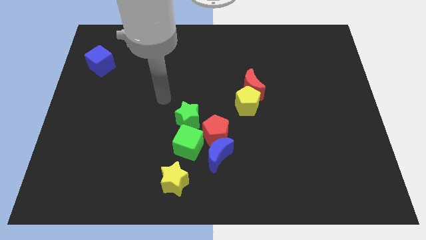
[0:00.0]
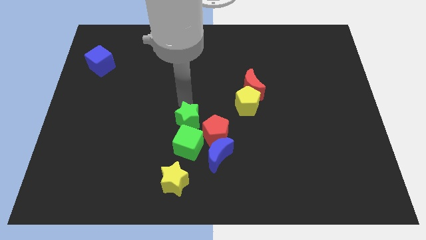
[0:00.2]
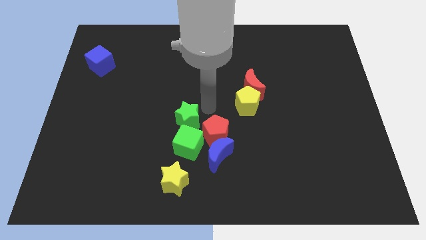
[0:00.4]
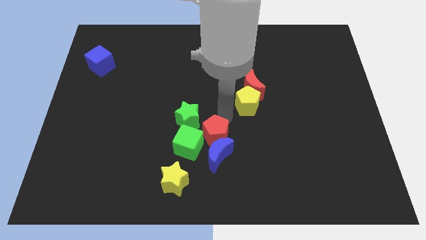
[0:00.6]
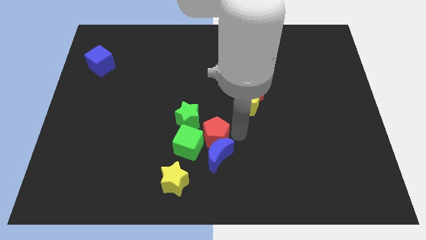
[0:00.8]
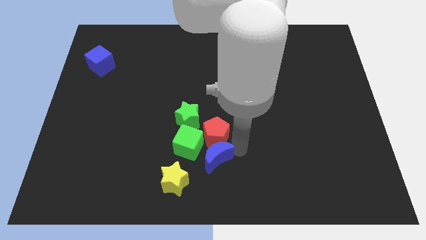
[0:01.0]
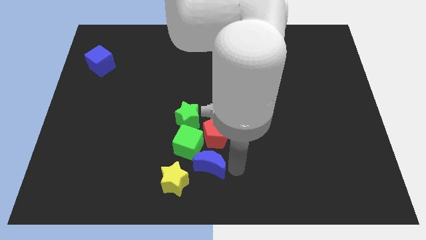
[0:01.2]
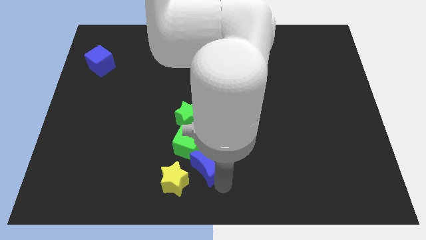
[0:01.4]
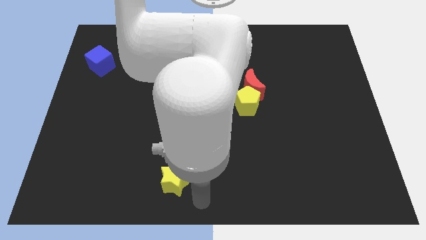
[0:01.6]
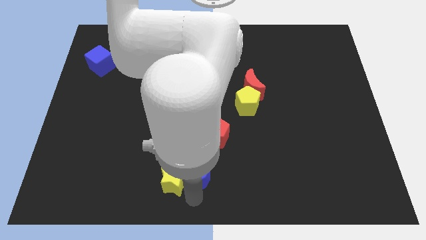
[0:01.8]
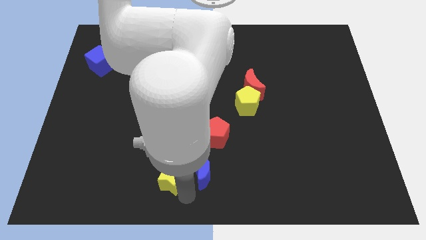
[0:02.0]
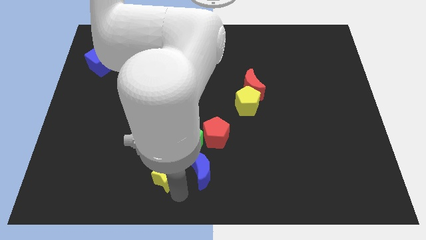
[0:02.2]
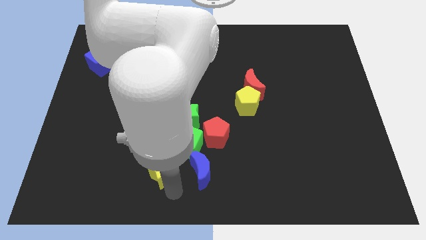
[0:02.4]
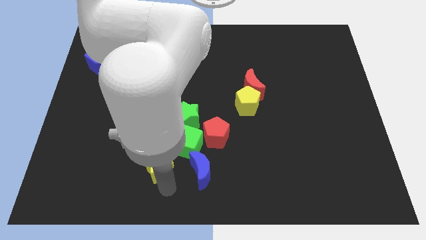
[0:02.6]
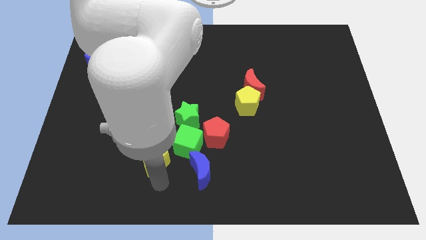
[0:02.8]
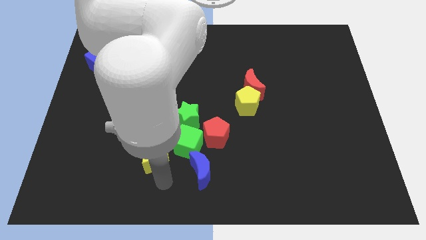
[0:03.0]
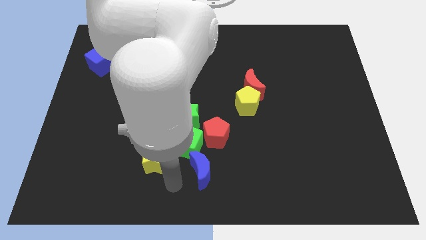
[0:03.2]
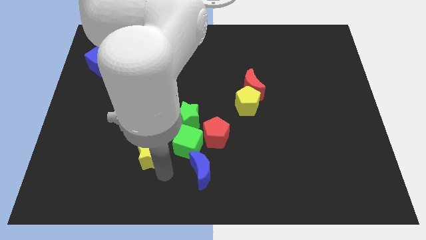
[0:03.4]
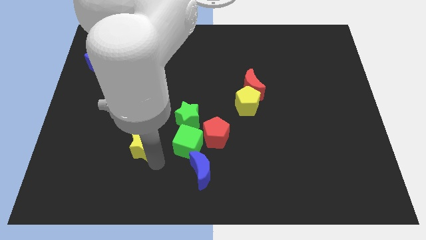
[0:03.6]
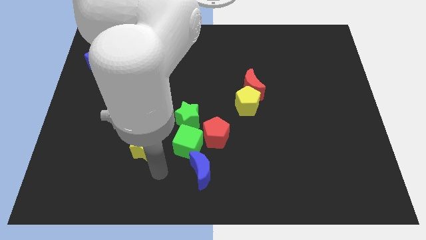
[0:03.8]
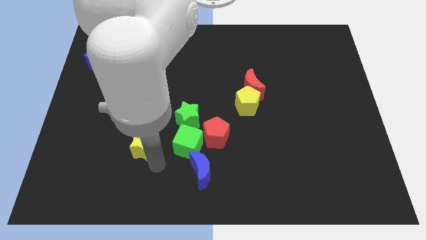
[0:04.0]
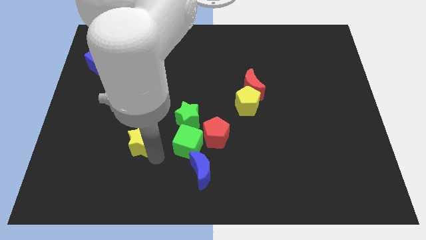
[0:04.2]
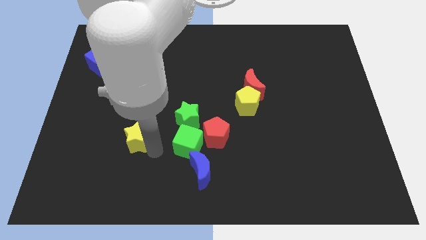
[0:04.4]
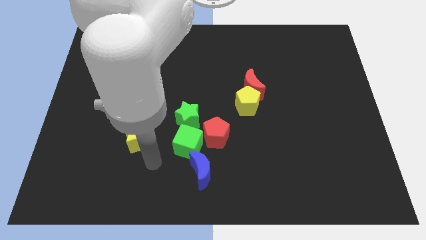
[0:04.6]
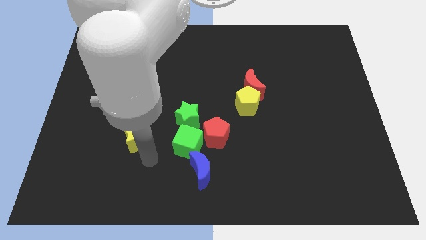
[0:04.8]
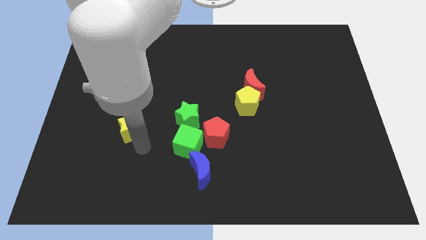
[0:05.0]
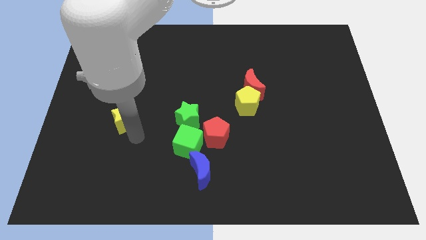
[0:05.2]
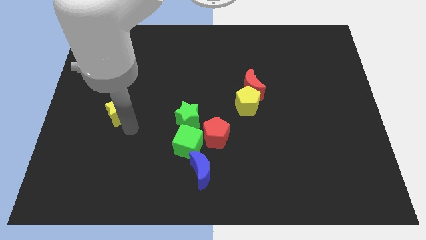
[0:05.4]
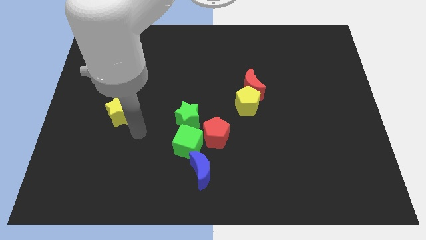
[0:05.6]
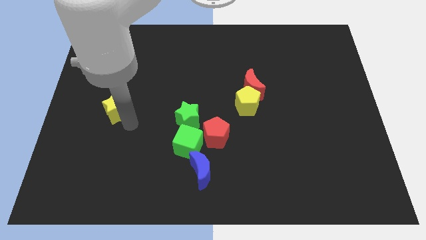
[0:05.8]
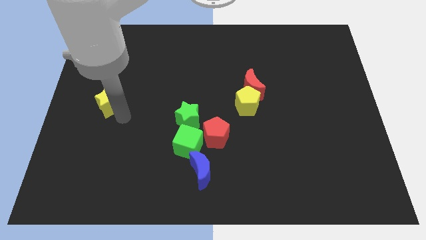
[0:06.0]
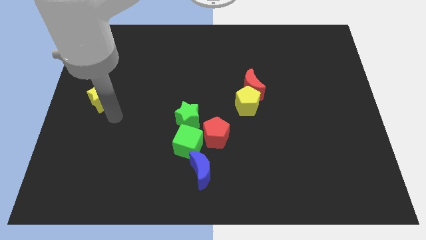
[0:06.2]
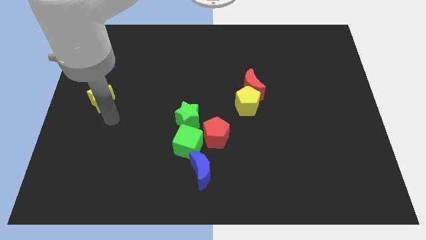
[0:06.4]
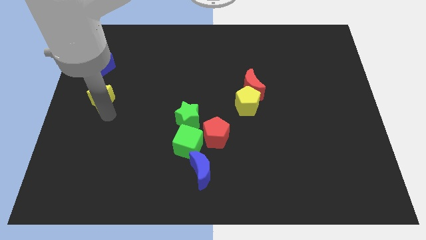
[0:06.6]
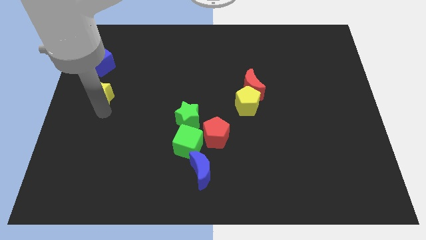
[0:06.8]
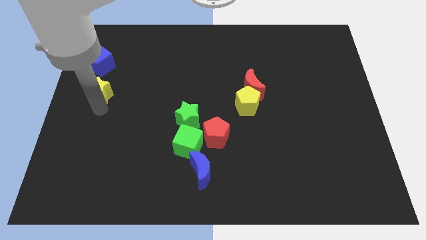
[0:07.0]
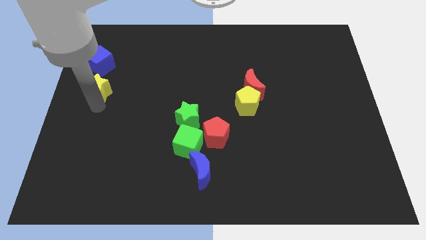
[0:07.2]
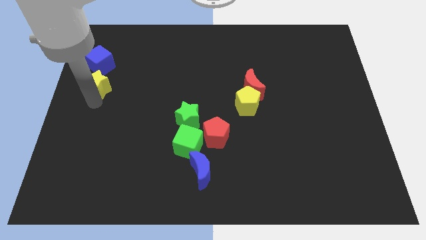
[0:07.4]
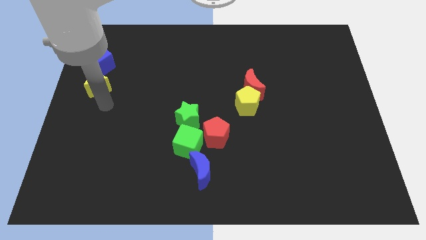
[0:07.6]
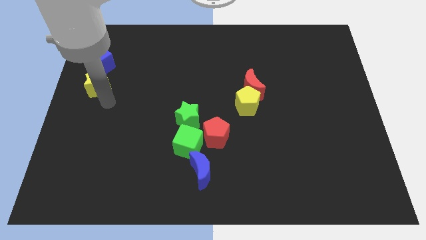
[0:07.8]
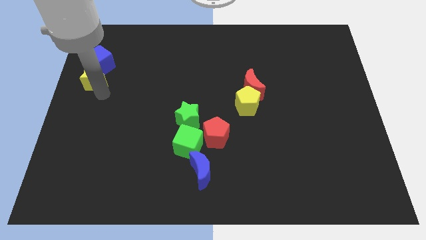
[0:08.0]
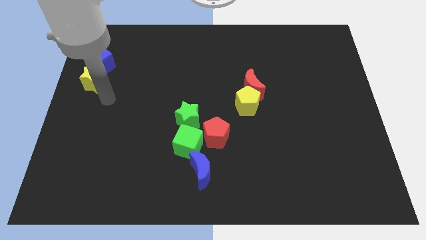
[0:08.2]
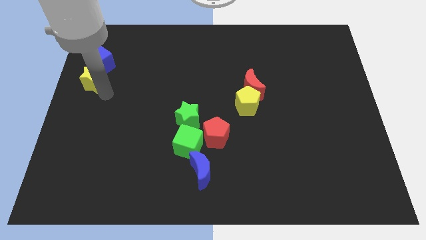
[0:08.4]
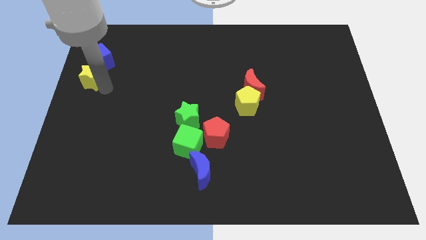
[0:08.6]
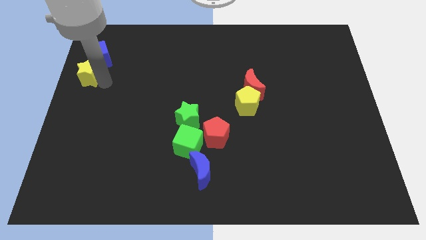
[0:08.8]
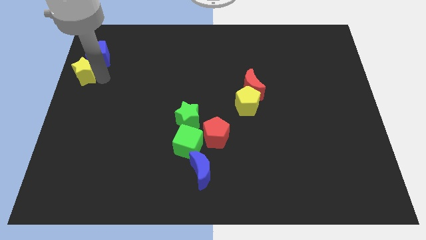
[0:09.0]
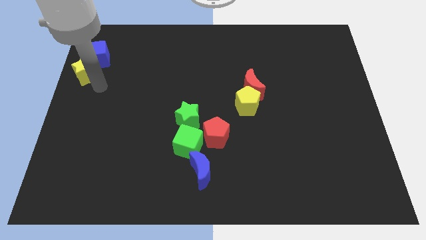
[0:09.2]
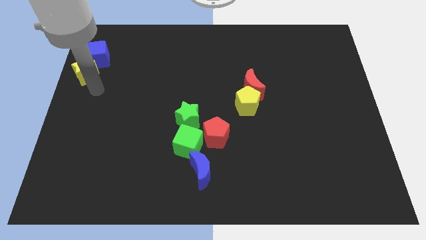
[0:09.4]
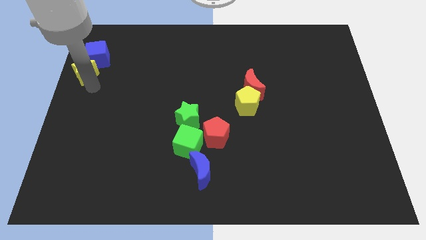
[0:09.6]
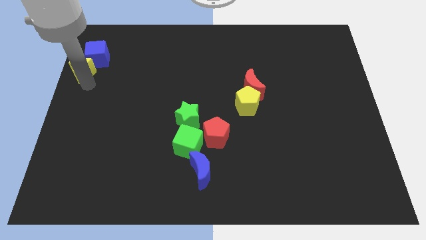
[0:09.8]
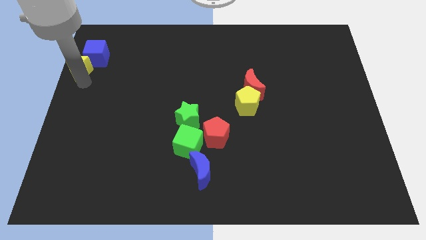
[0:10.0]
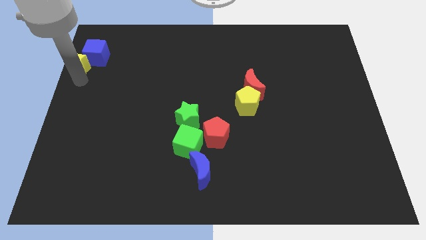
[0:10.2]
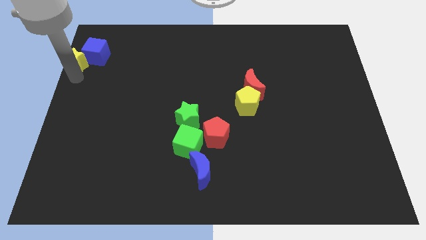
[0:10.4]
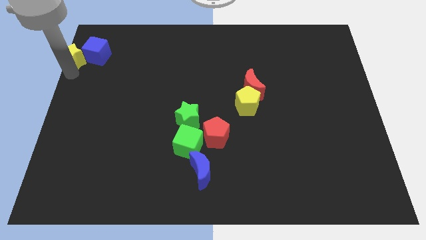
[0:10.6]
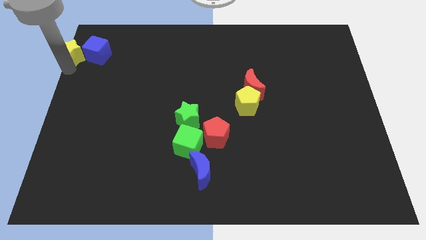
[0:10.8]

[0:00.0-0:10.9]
move the yellow star to the upper left corner

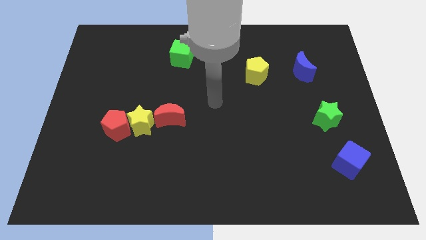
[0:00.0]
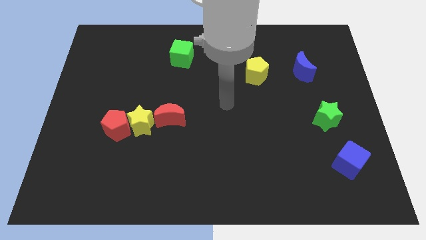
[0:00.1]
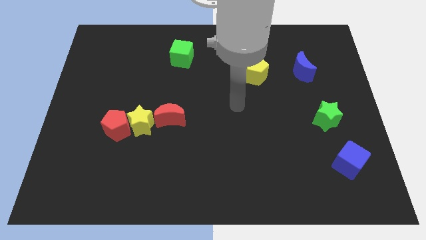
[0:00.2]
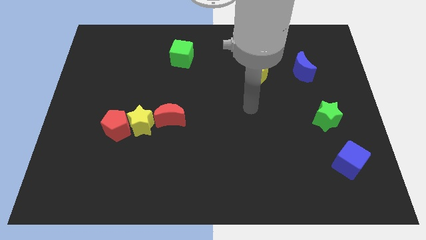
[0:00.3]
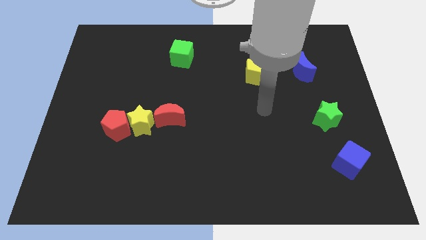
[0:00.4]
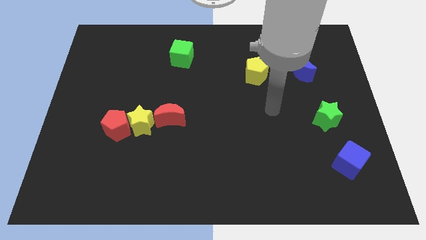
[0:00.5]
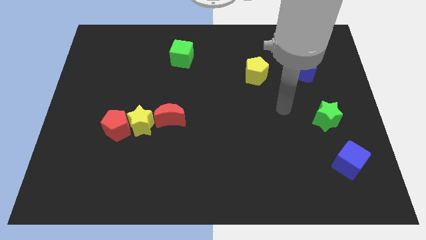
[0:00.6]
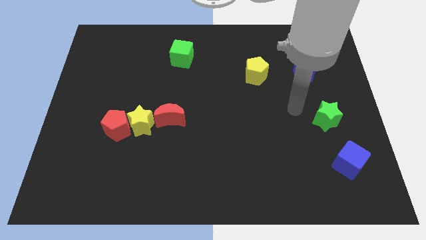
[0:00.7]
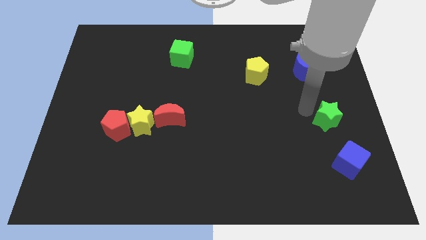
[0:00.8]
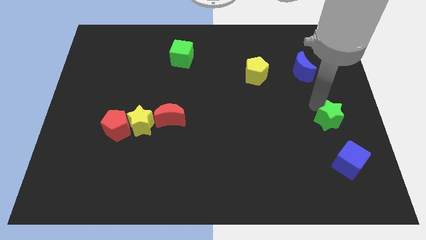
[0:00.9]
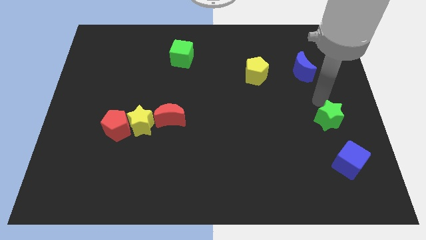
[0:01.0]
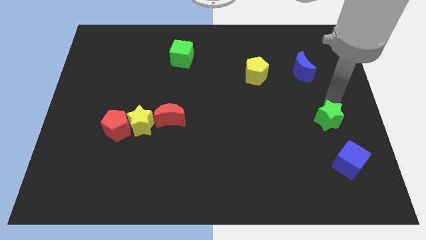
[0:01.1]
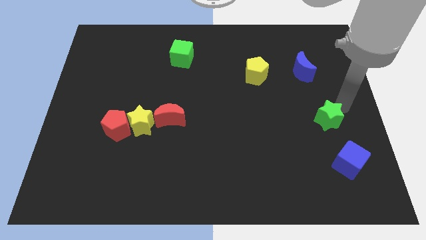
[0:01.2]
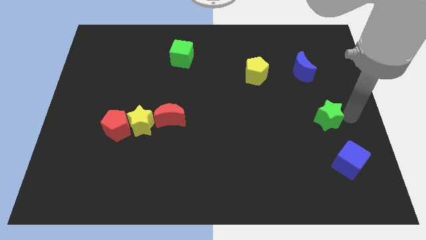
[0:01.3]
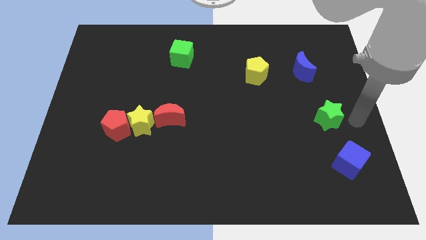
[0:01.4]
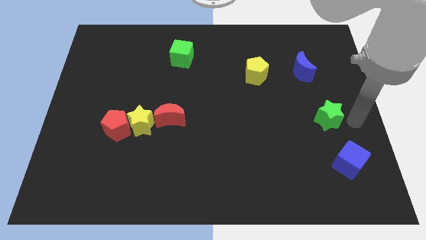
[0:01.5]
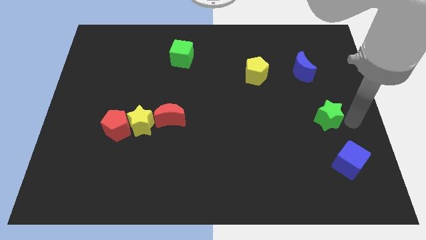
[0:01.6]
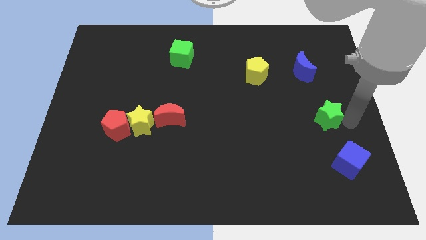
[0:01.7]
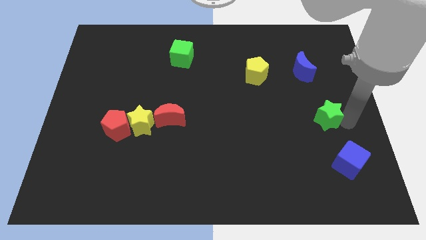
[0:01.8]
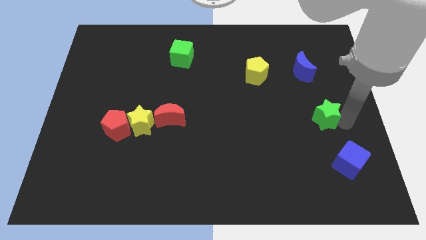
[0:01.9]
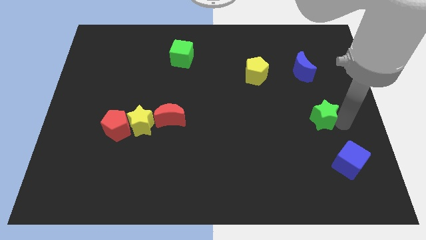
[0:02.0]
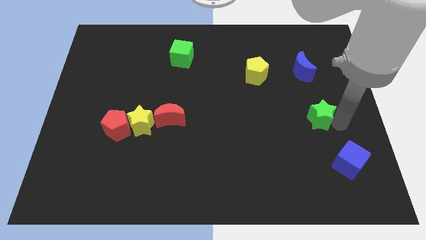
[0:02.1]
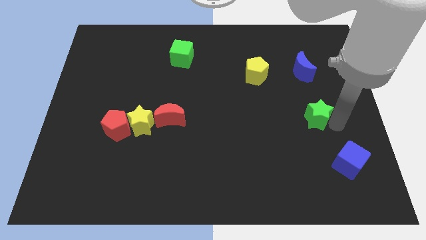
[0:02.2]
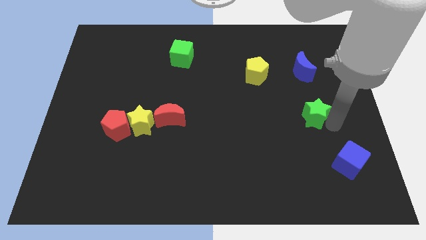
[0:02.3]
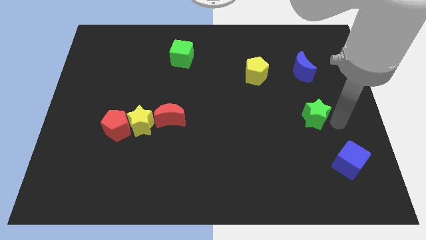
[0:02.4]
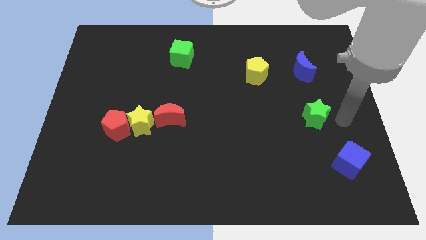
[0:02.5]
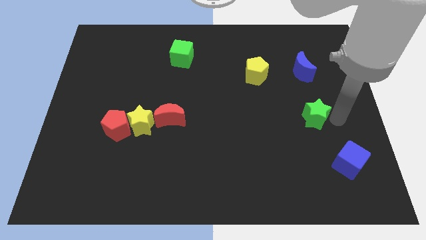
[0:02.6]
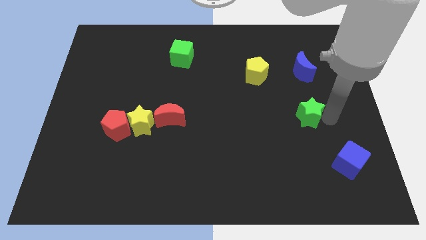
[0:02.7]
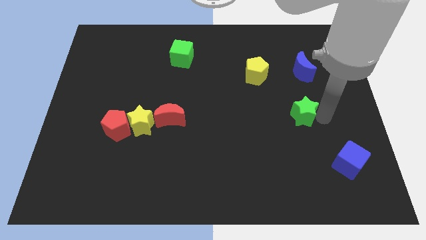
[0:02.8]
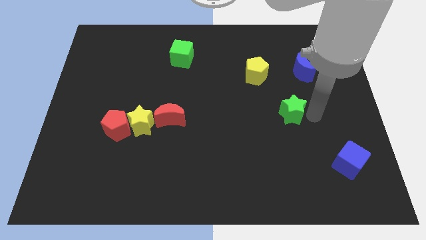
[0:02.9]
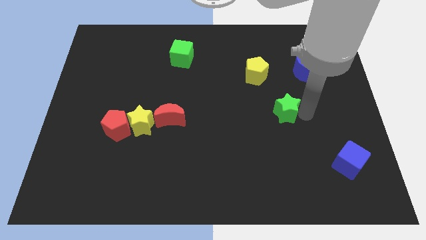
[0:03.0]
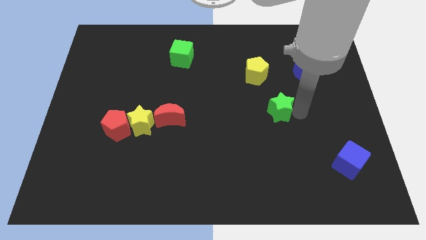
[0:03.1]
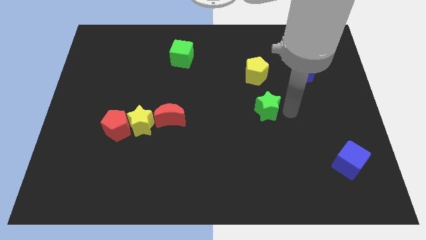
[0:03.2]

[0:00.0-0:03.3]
move the green star to the middle
